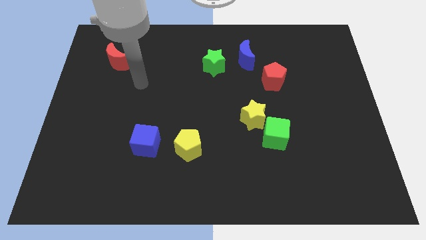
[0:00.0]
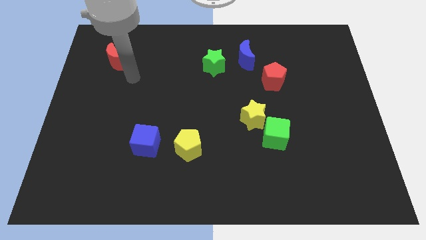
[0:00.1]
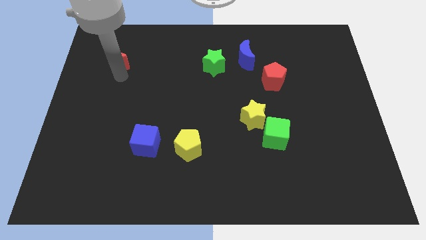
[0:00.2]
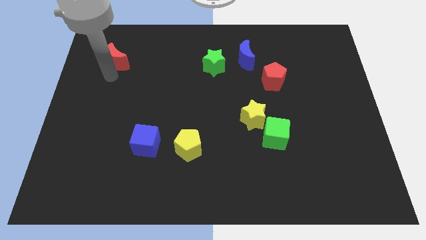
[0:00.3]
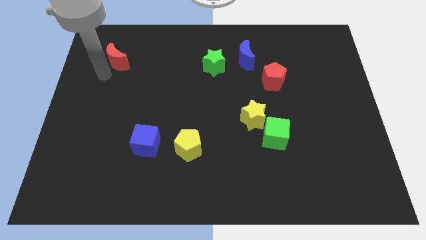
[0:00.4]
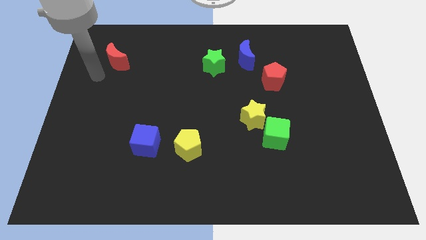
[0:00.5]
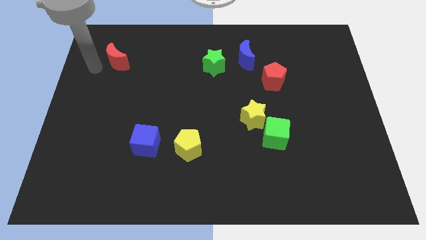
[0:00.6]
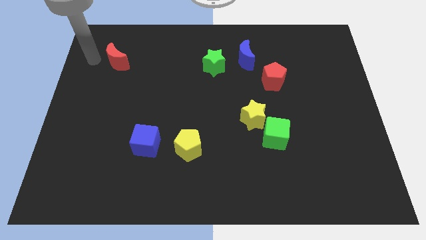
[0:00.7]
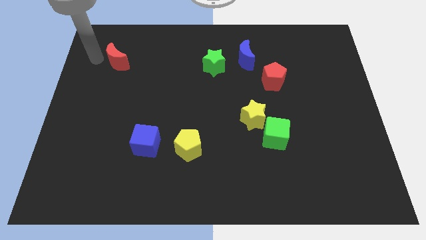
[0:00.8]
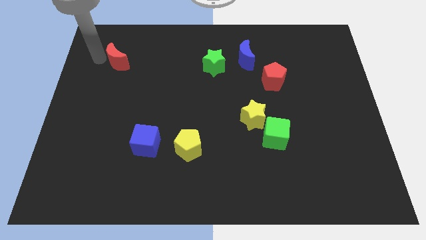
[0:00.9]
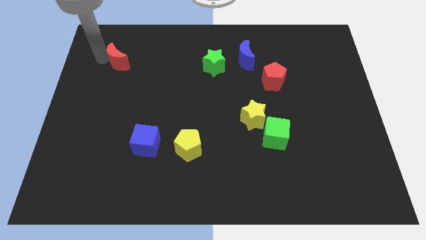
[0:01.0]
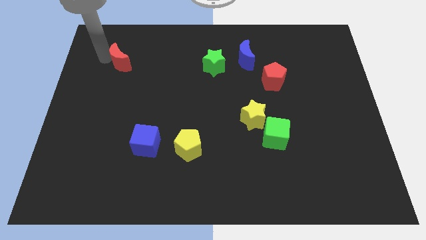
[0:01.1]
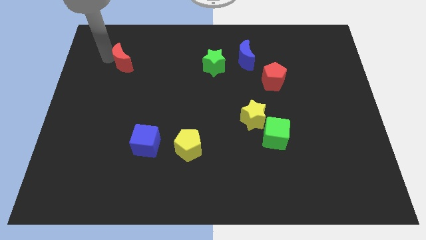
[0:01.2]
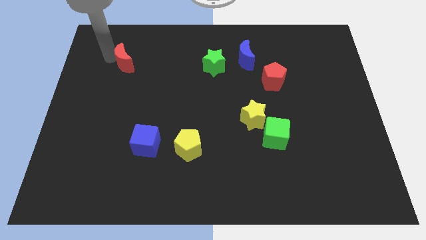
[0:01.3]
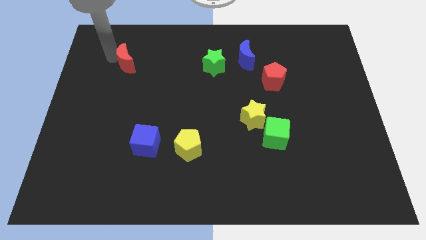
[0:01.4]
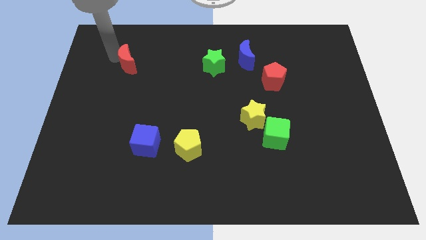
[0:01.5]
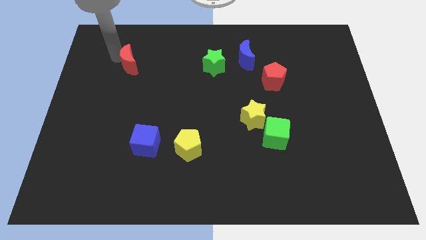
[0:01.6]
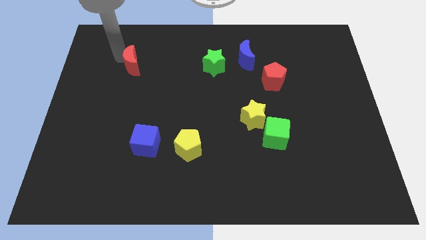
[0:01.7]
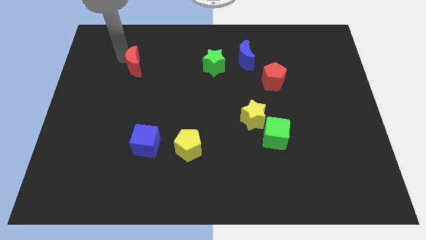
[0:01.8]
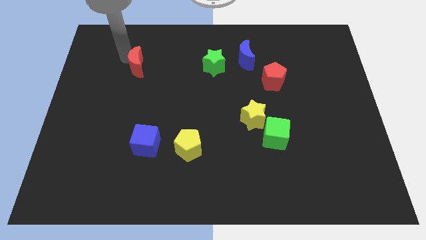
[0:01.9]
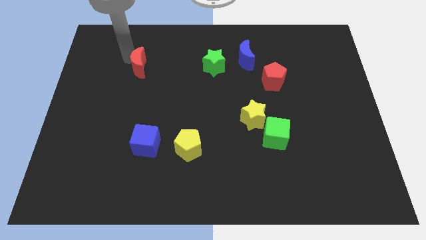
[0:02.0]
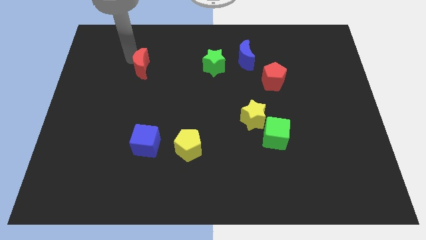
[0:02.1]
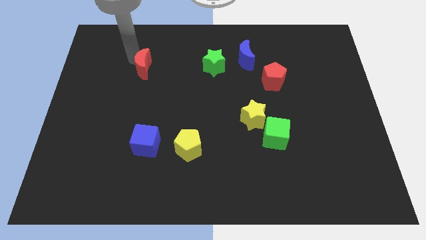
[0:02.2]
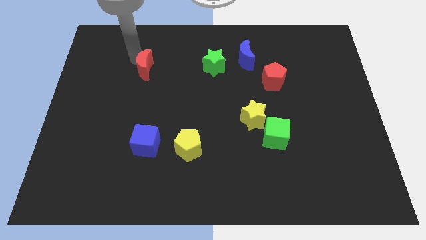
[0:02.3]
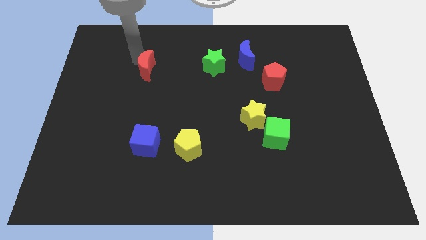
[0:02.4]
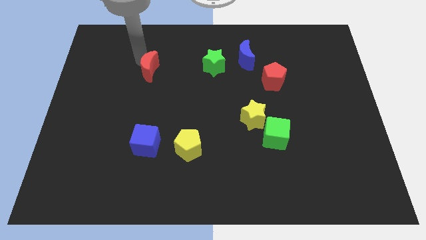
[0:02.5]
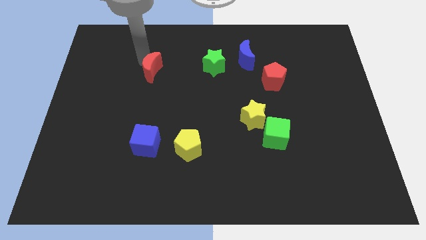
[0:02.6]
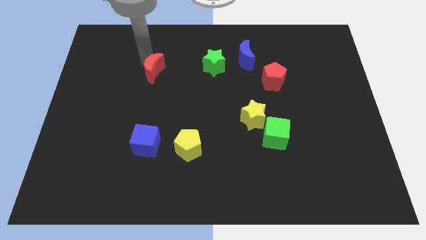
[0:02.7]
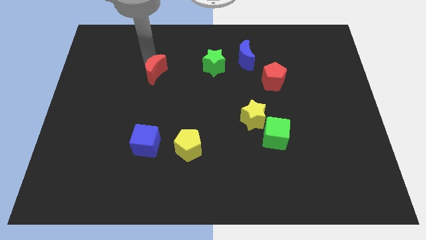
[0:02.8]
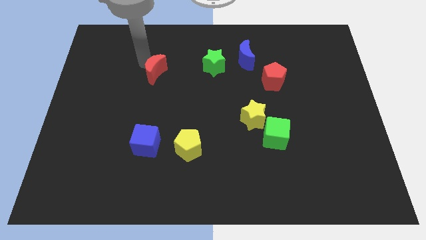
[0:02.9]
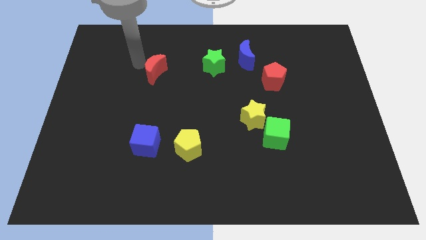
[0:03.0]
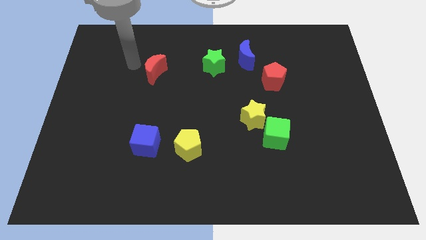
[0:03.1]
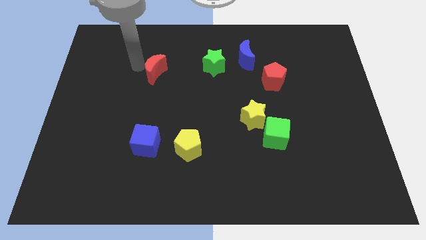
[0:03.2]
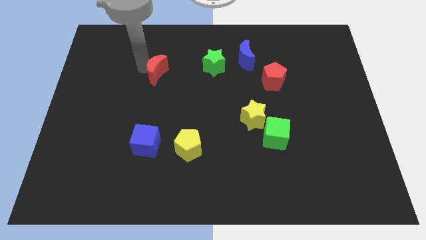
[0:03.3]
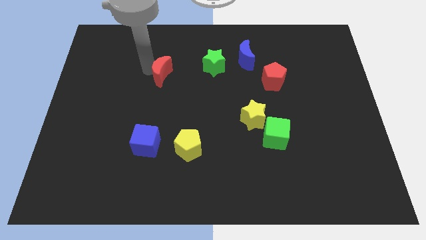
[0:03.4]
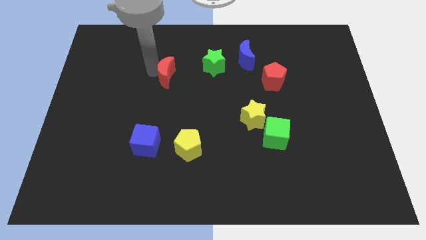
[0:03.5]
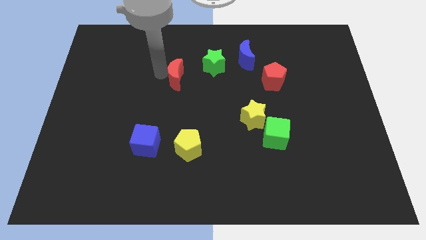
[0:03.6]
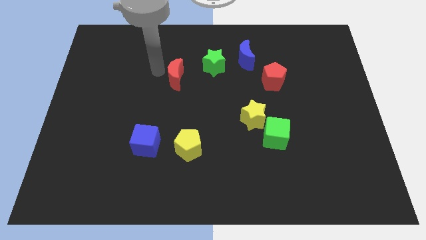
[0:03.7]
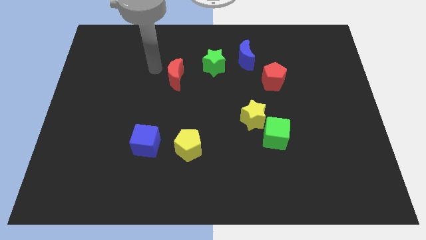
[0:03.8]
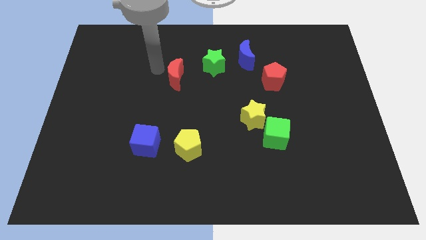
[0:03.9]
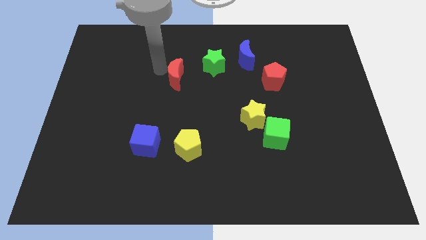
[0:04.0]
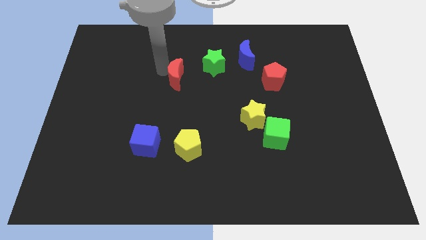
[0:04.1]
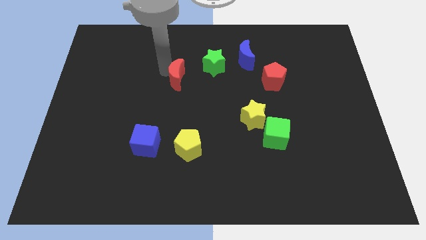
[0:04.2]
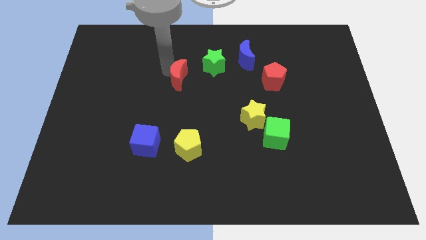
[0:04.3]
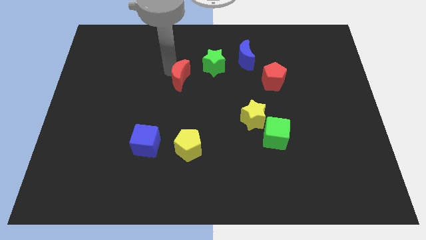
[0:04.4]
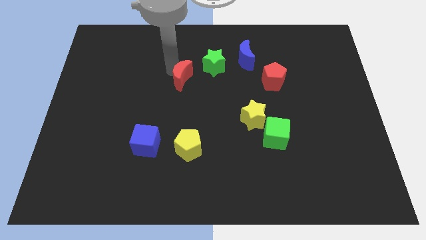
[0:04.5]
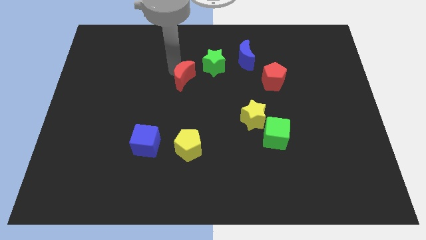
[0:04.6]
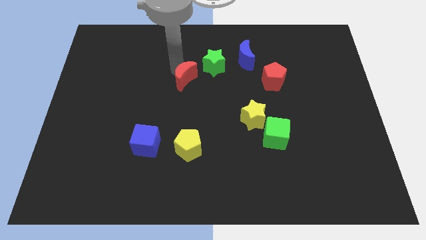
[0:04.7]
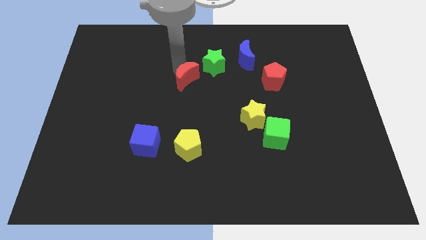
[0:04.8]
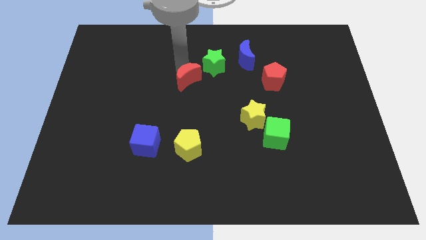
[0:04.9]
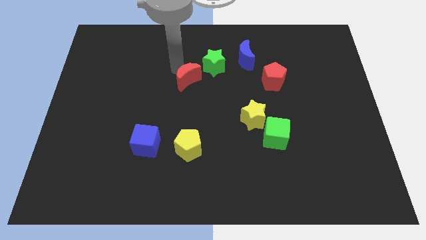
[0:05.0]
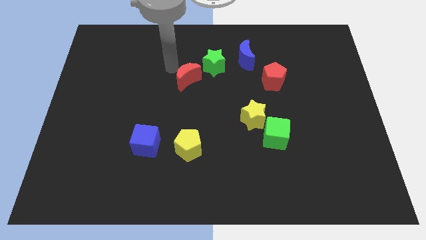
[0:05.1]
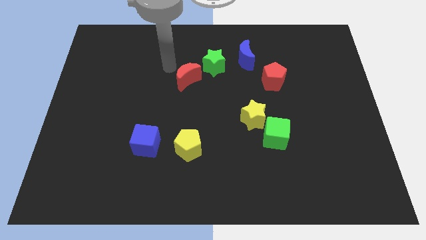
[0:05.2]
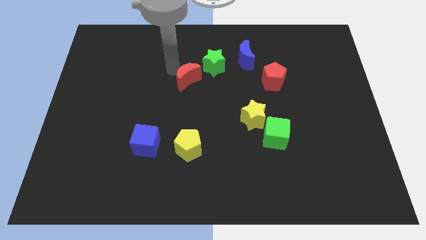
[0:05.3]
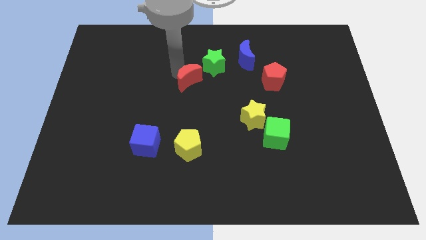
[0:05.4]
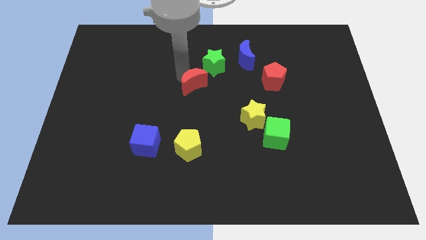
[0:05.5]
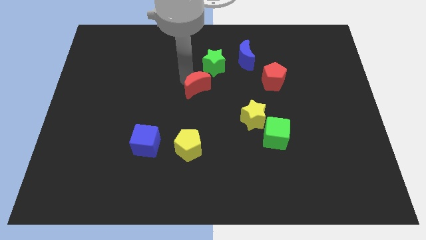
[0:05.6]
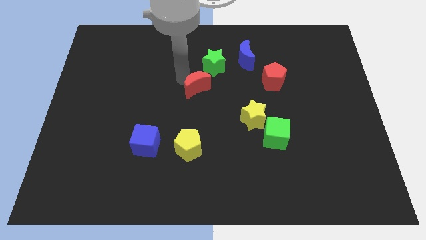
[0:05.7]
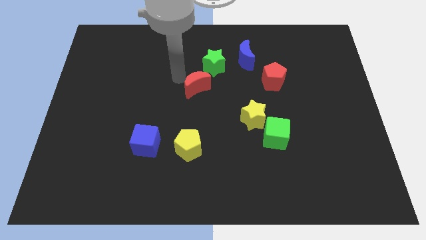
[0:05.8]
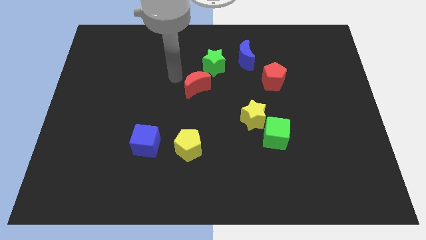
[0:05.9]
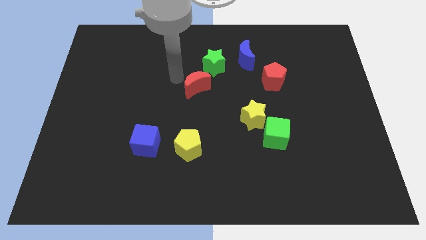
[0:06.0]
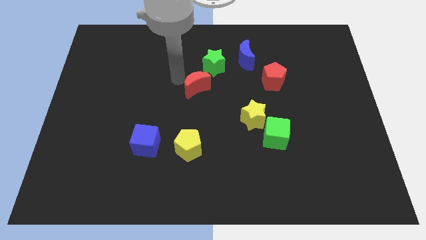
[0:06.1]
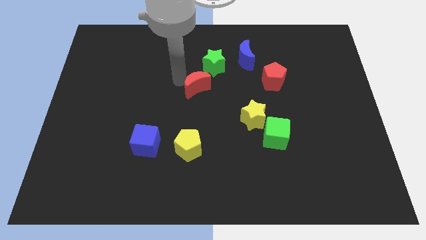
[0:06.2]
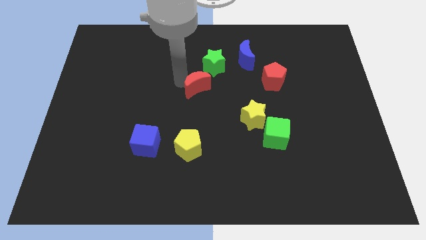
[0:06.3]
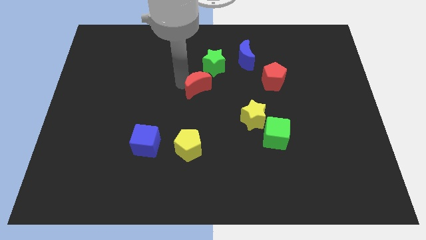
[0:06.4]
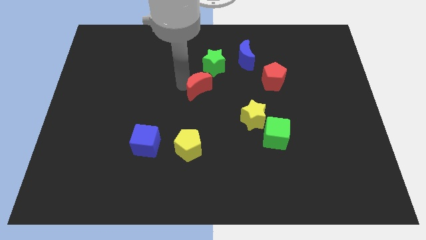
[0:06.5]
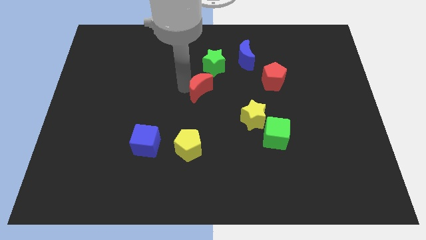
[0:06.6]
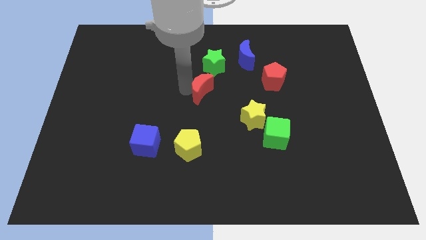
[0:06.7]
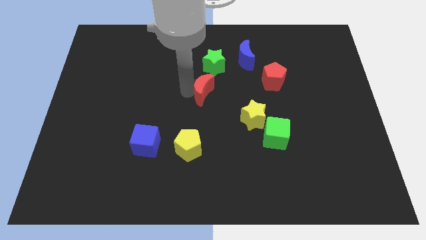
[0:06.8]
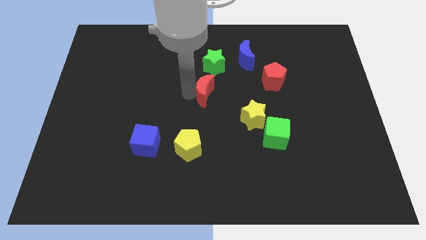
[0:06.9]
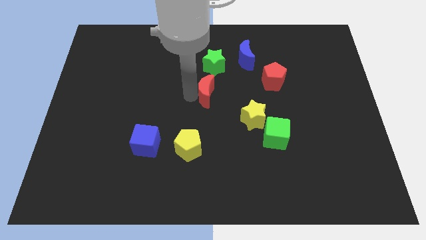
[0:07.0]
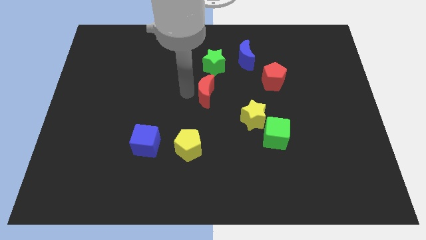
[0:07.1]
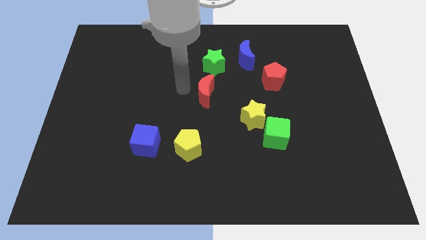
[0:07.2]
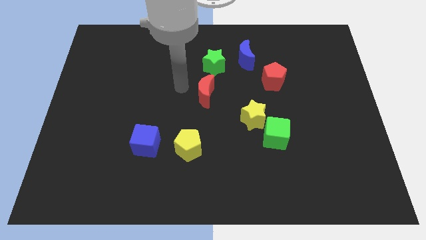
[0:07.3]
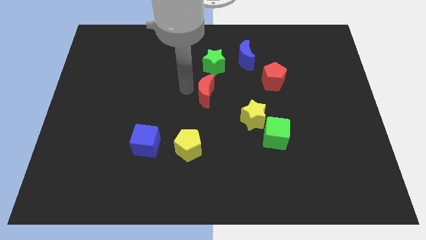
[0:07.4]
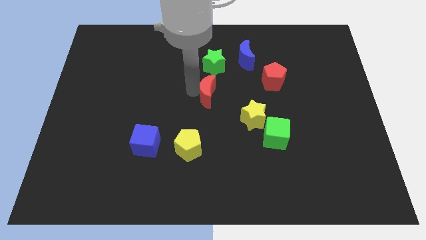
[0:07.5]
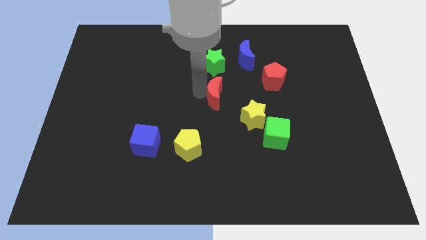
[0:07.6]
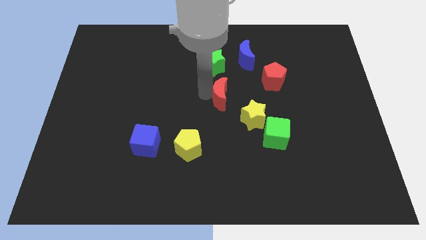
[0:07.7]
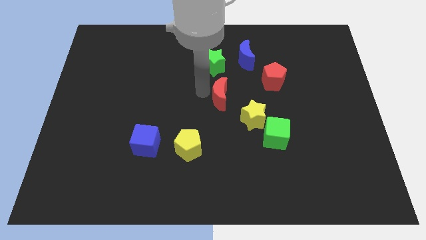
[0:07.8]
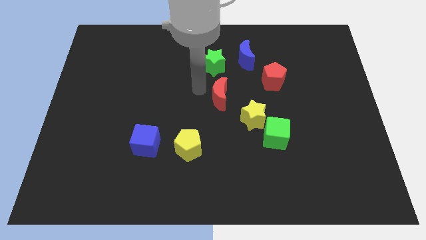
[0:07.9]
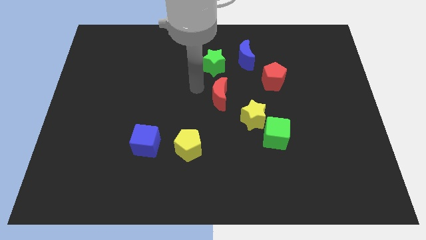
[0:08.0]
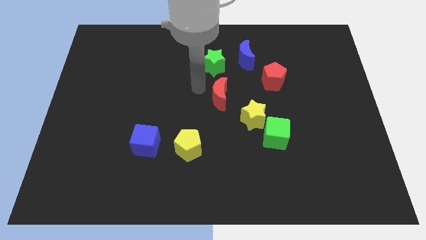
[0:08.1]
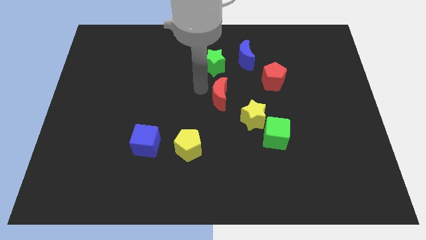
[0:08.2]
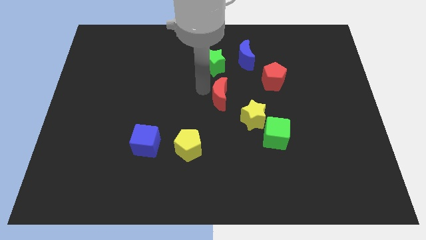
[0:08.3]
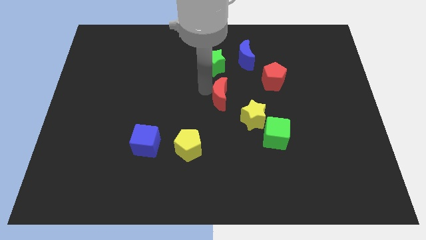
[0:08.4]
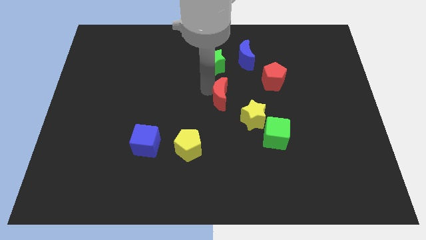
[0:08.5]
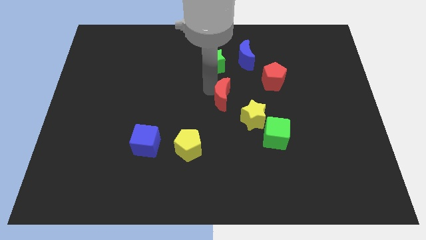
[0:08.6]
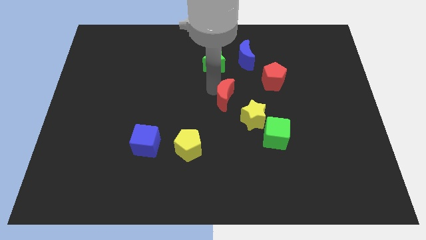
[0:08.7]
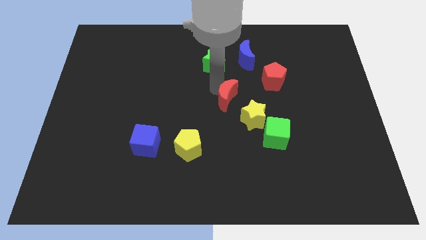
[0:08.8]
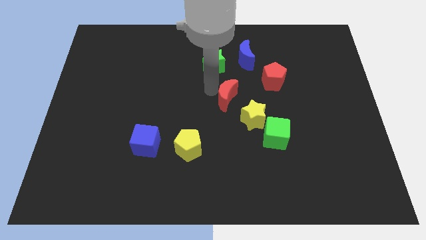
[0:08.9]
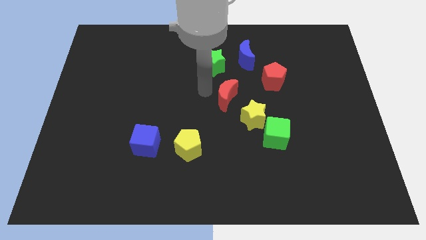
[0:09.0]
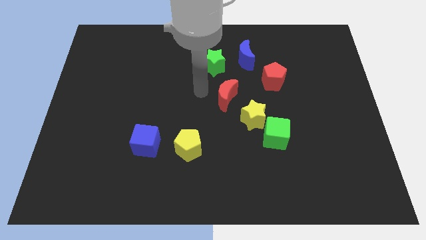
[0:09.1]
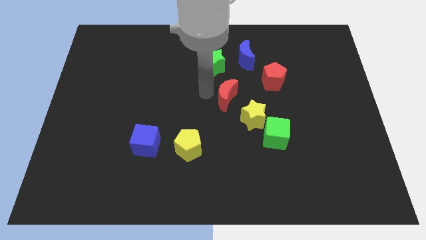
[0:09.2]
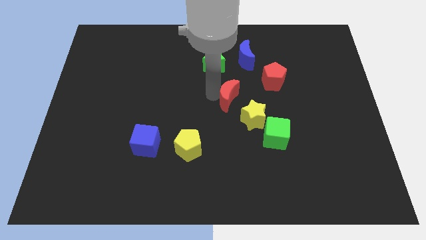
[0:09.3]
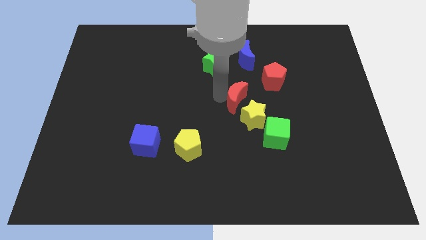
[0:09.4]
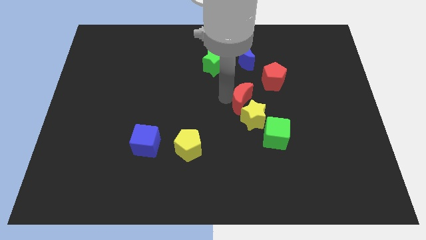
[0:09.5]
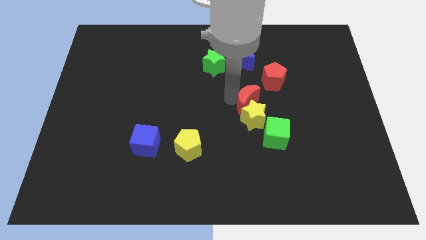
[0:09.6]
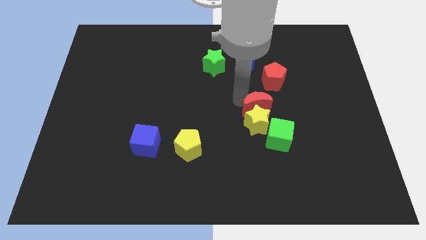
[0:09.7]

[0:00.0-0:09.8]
put the red moon to the bottom side of the red pentagon
